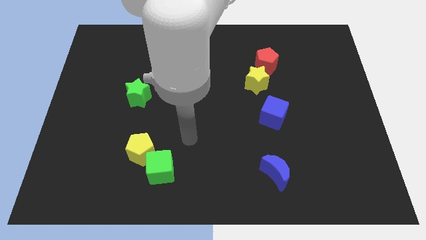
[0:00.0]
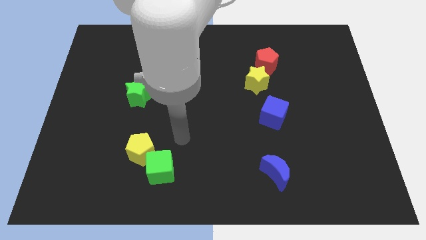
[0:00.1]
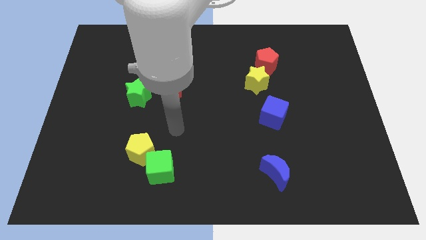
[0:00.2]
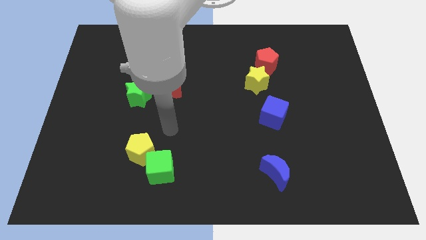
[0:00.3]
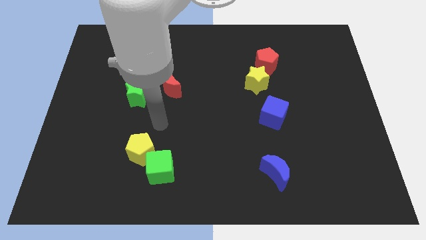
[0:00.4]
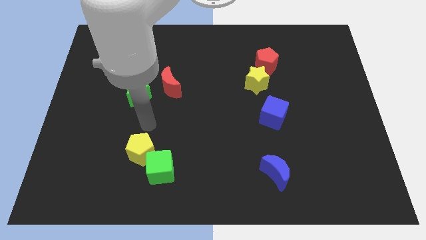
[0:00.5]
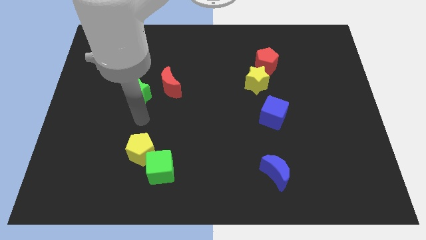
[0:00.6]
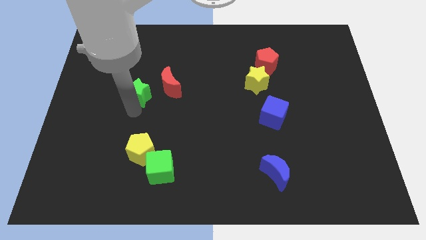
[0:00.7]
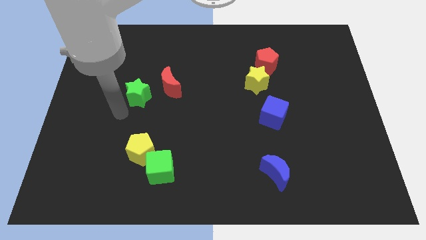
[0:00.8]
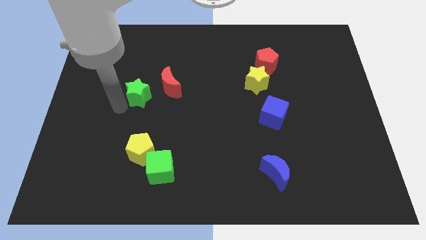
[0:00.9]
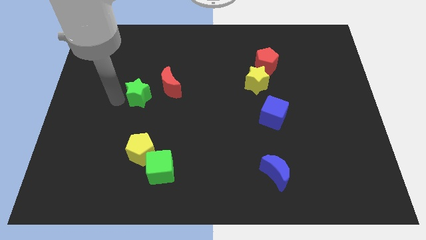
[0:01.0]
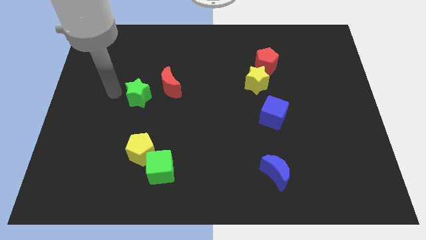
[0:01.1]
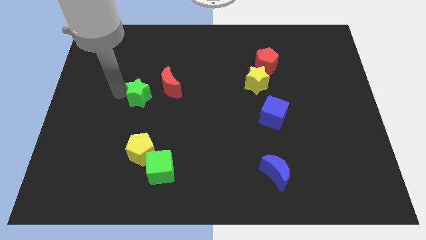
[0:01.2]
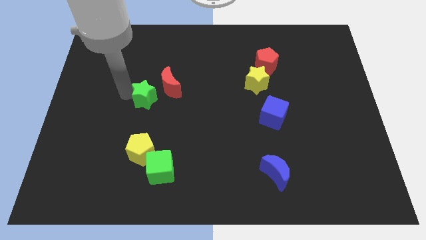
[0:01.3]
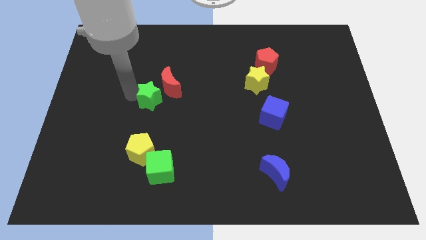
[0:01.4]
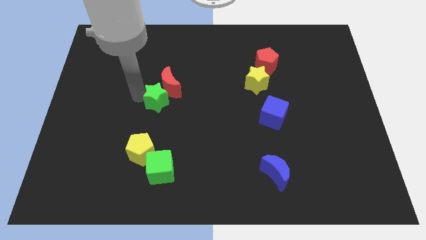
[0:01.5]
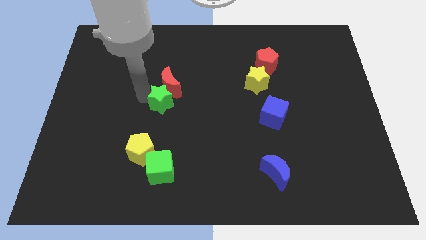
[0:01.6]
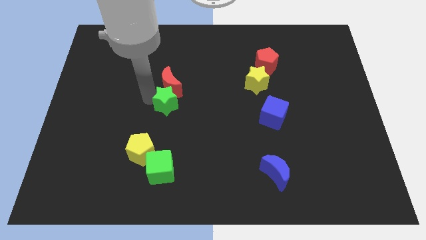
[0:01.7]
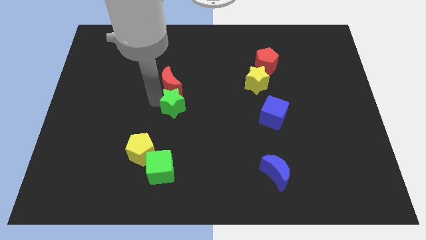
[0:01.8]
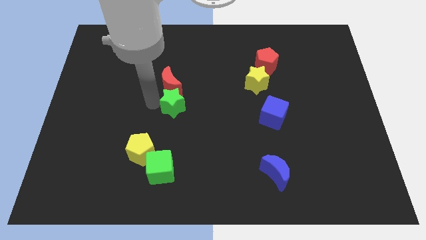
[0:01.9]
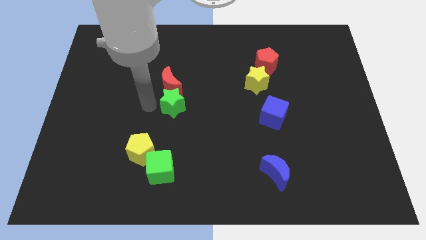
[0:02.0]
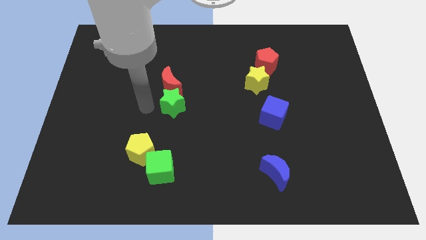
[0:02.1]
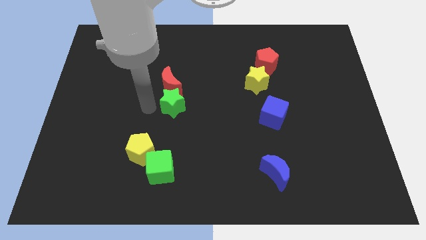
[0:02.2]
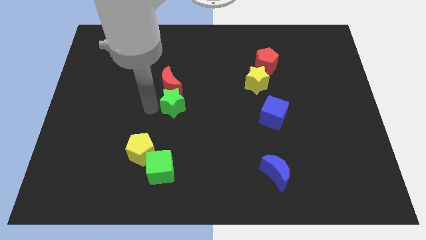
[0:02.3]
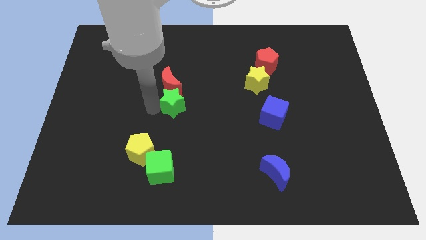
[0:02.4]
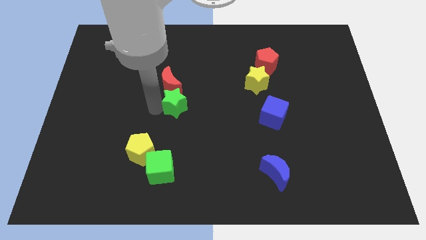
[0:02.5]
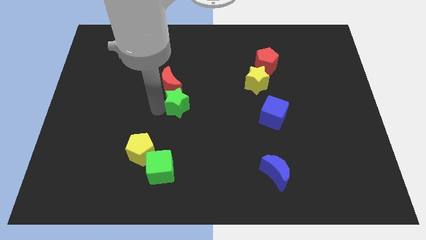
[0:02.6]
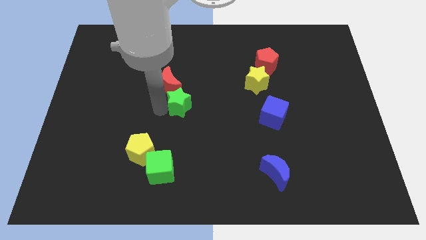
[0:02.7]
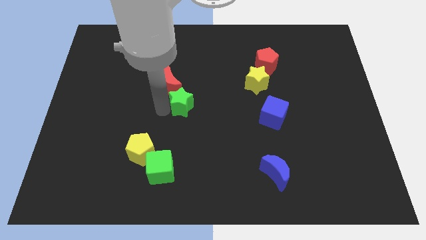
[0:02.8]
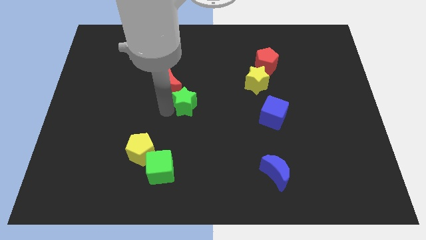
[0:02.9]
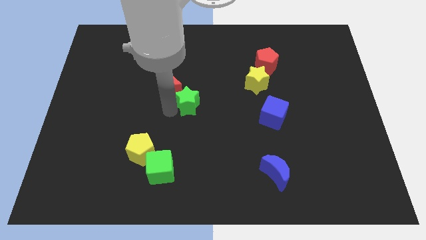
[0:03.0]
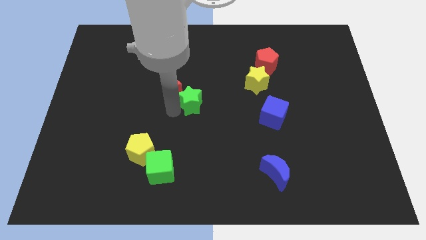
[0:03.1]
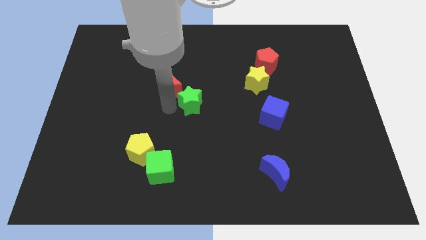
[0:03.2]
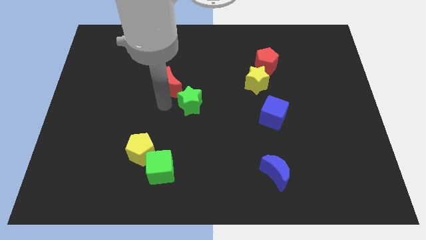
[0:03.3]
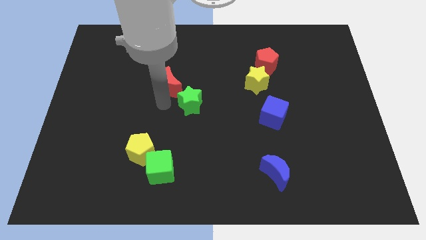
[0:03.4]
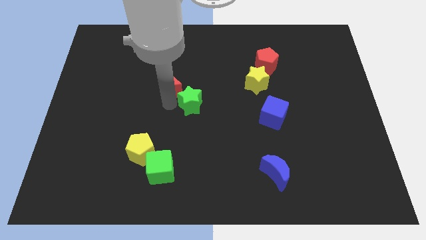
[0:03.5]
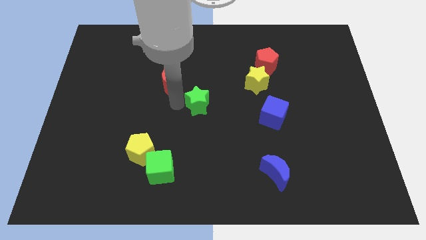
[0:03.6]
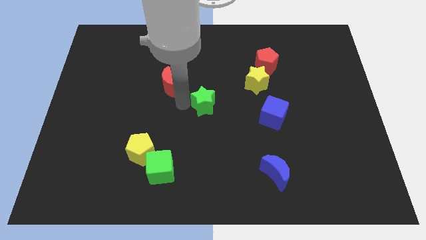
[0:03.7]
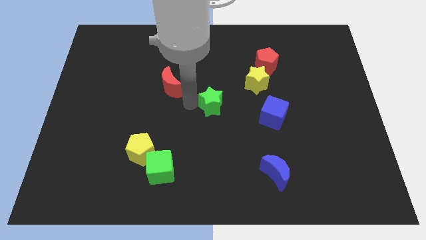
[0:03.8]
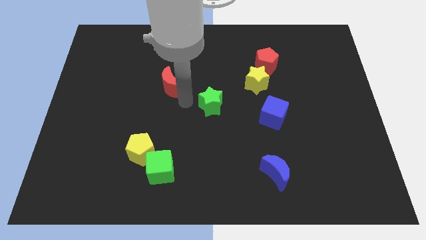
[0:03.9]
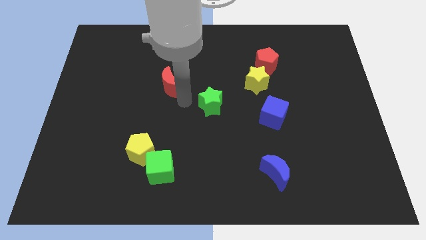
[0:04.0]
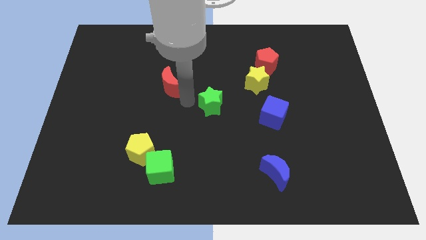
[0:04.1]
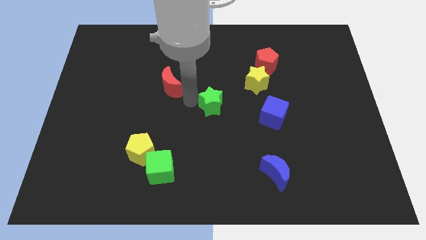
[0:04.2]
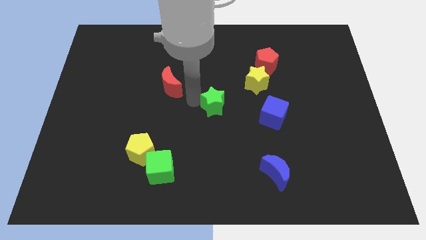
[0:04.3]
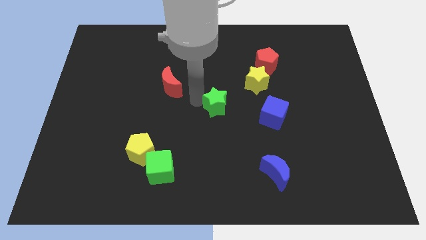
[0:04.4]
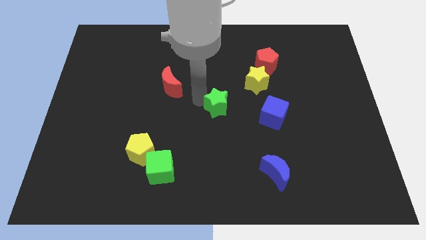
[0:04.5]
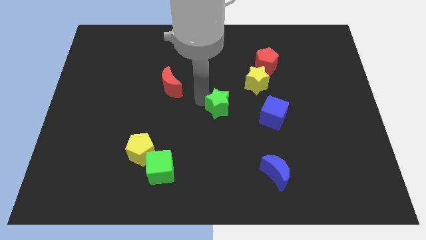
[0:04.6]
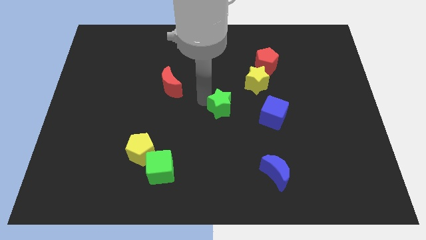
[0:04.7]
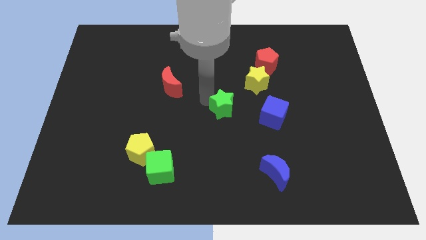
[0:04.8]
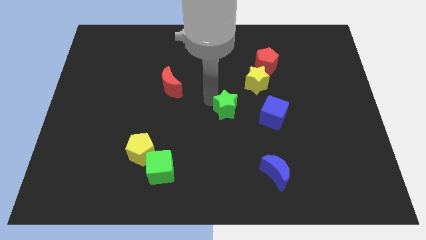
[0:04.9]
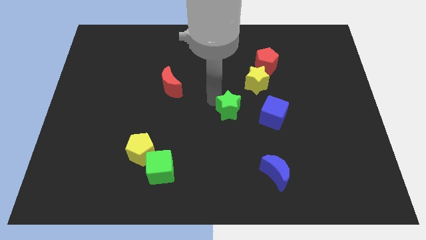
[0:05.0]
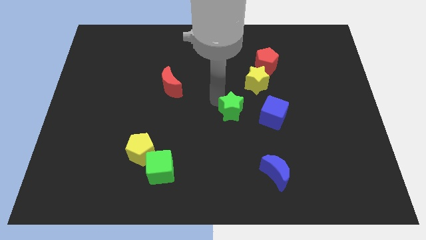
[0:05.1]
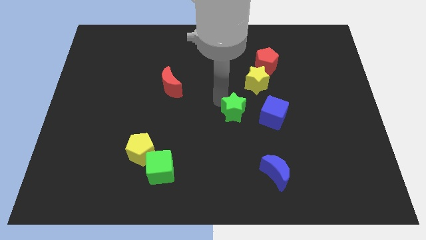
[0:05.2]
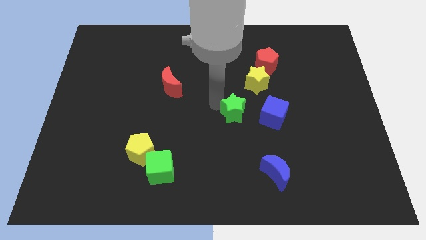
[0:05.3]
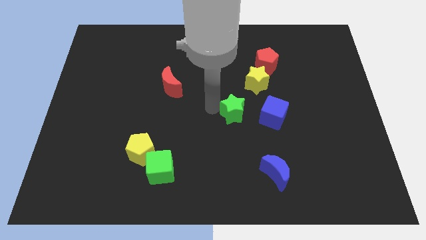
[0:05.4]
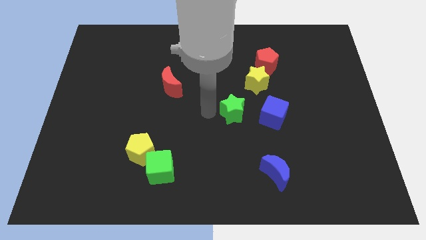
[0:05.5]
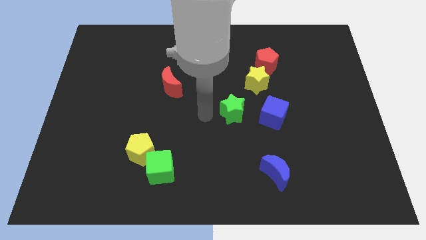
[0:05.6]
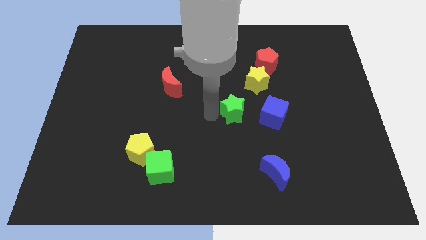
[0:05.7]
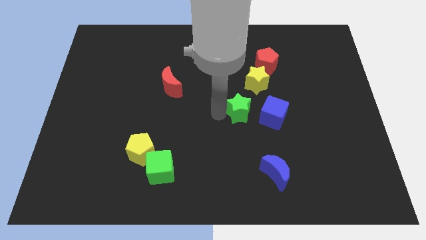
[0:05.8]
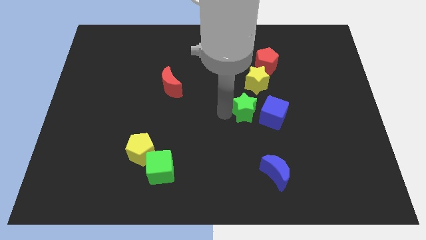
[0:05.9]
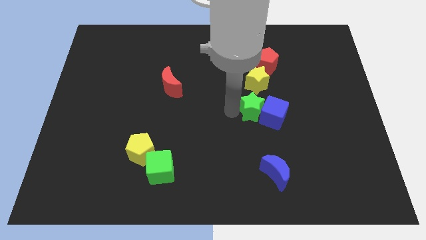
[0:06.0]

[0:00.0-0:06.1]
put the green star close to the blue cube

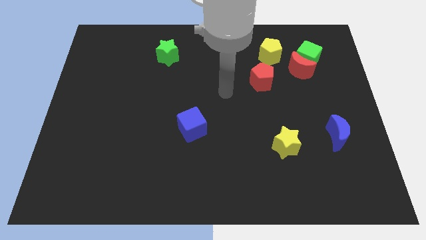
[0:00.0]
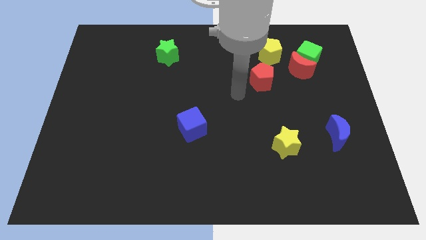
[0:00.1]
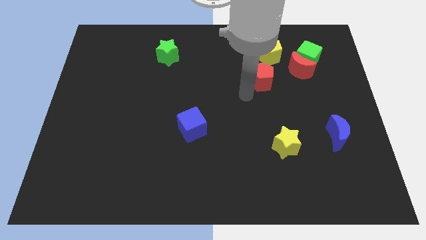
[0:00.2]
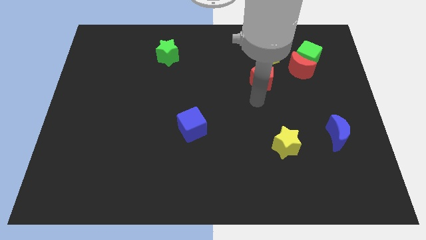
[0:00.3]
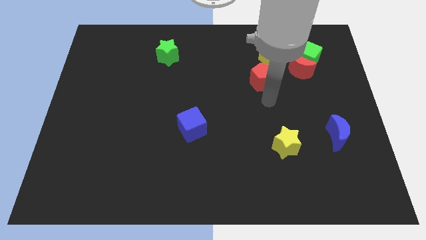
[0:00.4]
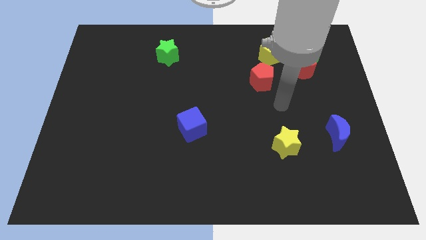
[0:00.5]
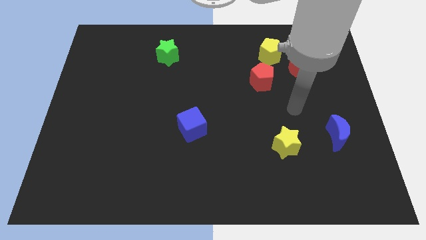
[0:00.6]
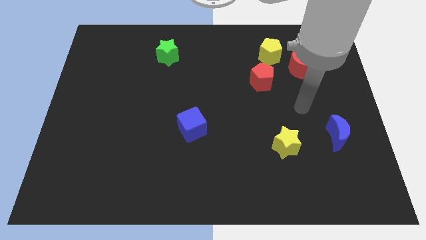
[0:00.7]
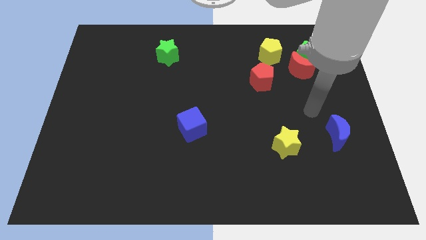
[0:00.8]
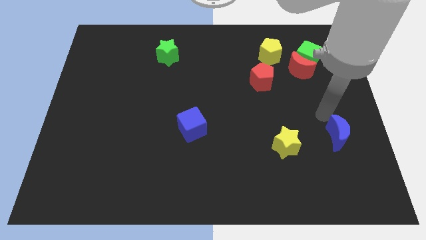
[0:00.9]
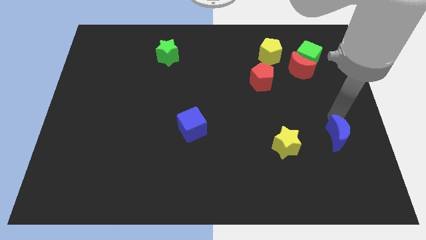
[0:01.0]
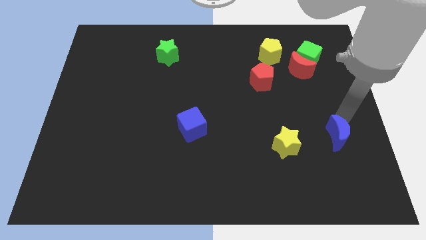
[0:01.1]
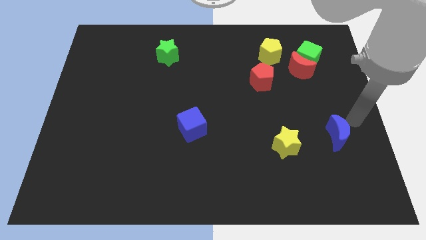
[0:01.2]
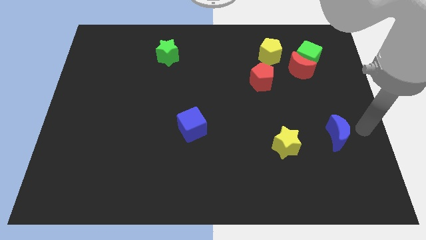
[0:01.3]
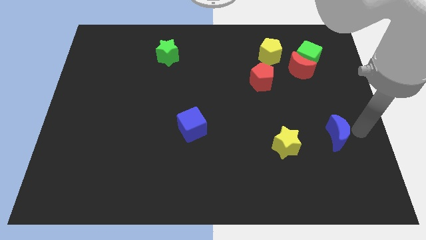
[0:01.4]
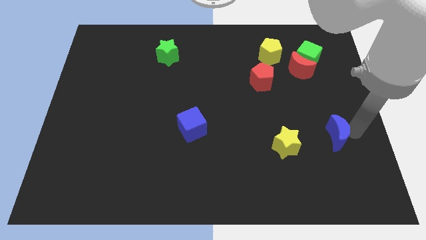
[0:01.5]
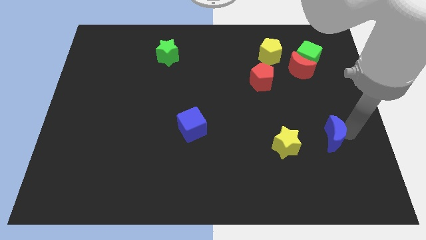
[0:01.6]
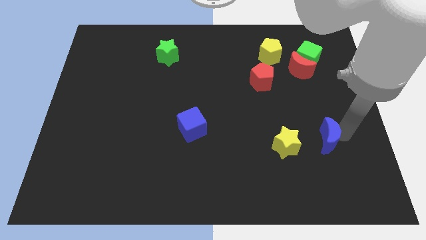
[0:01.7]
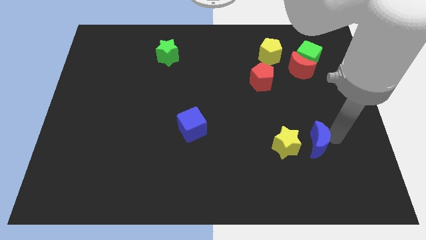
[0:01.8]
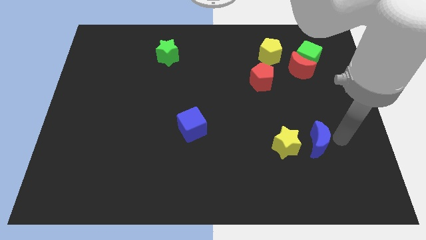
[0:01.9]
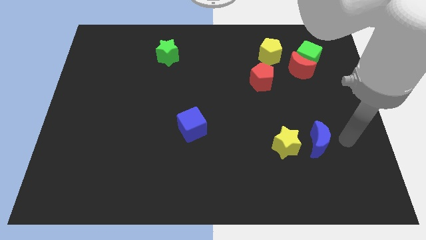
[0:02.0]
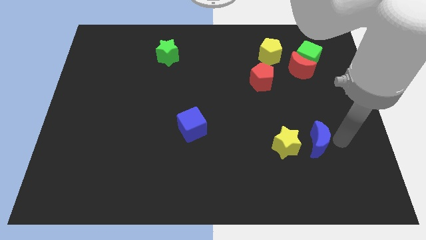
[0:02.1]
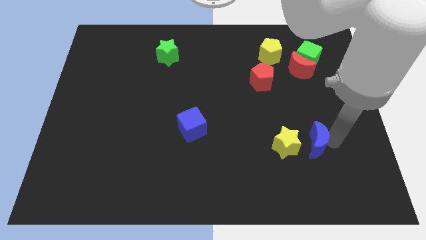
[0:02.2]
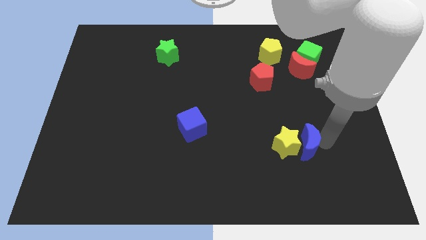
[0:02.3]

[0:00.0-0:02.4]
put the blue moon close to the yellow star
